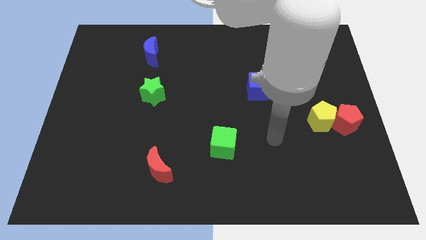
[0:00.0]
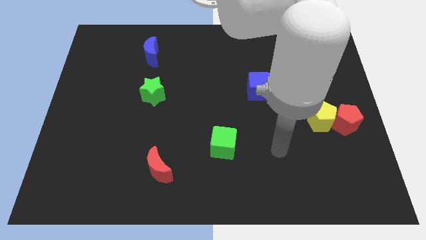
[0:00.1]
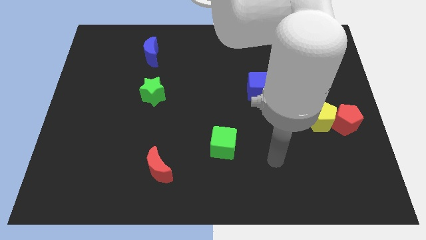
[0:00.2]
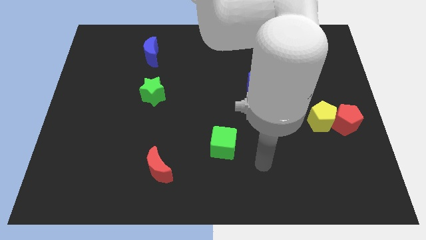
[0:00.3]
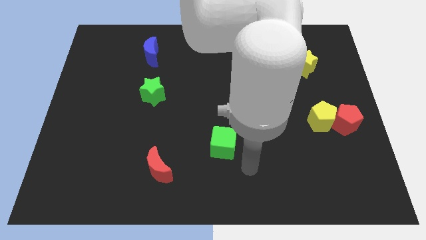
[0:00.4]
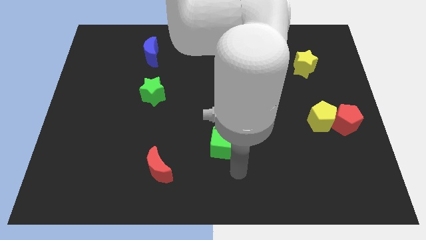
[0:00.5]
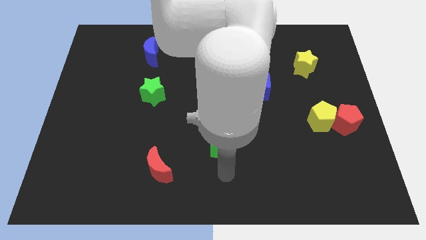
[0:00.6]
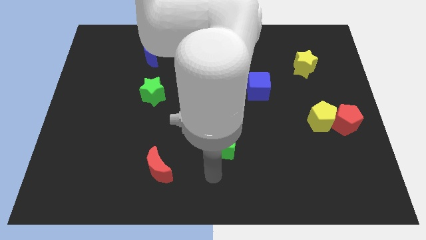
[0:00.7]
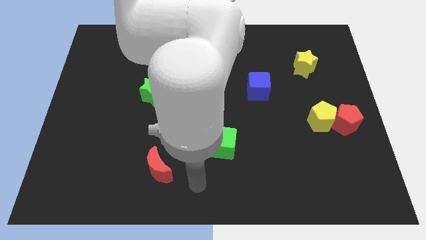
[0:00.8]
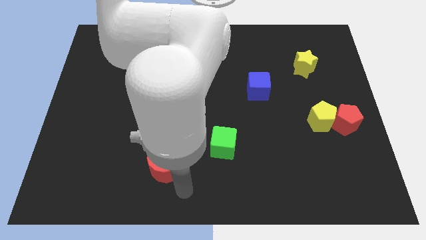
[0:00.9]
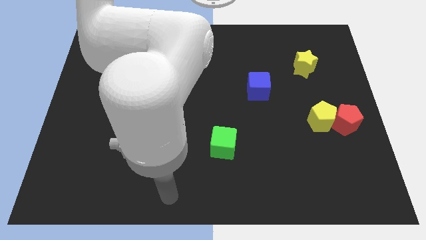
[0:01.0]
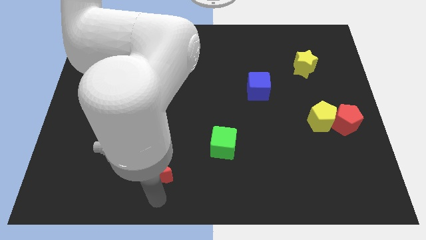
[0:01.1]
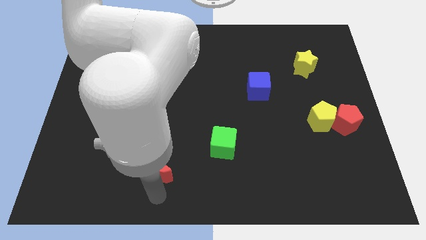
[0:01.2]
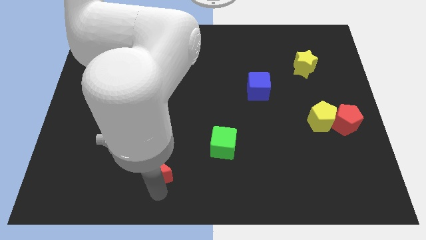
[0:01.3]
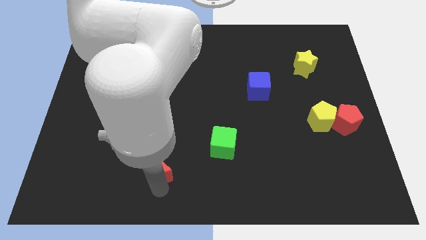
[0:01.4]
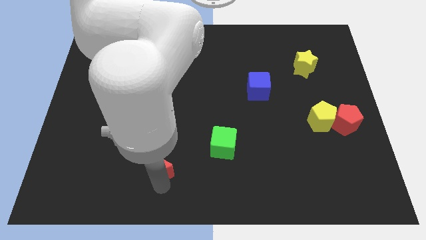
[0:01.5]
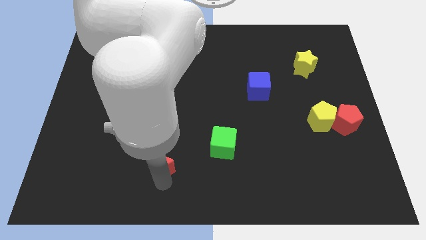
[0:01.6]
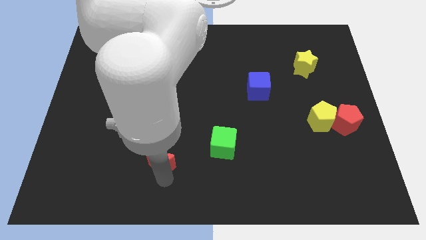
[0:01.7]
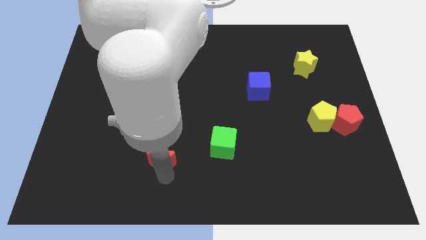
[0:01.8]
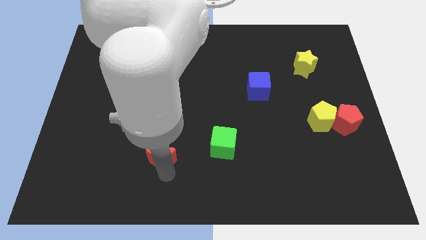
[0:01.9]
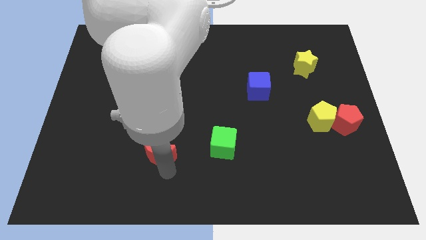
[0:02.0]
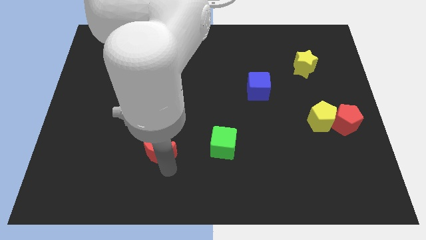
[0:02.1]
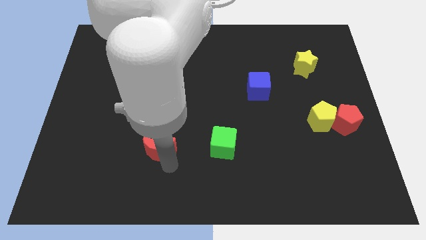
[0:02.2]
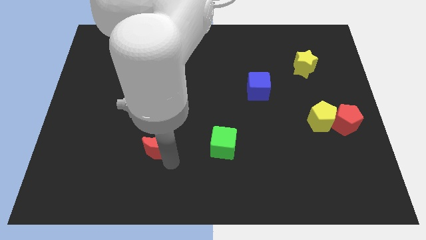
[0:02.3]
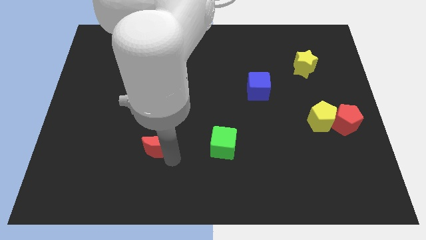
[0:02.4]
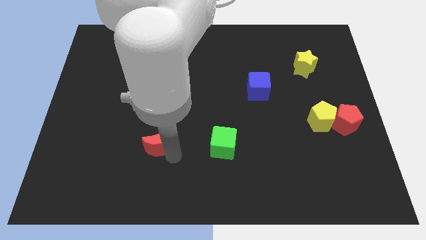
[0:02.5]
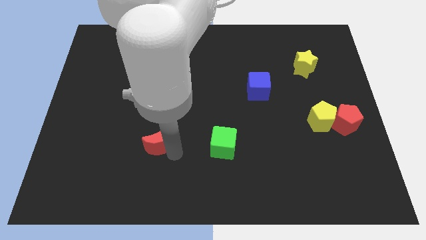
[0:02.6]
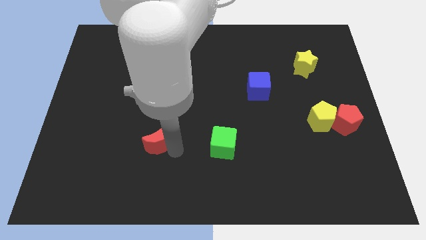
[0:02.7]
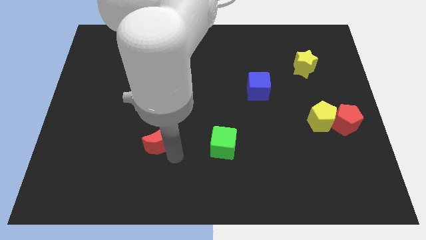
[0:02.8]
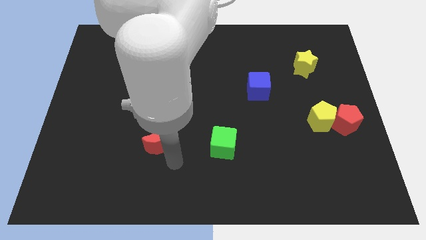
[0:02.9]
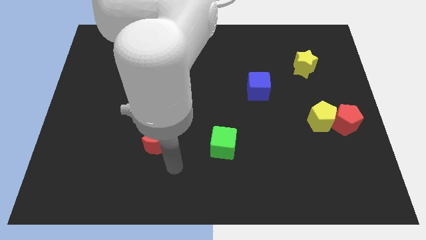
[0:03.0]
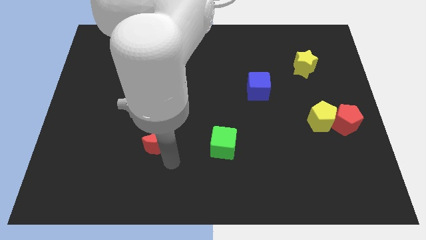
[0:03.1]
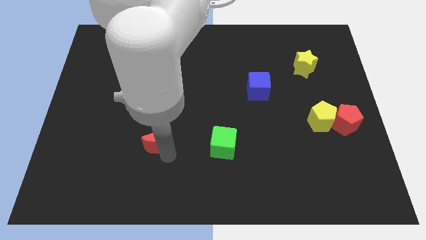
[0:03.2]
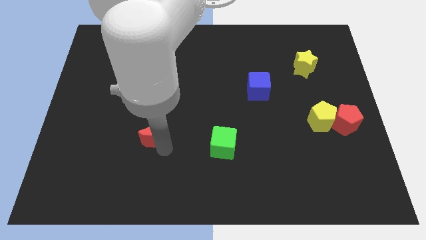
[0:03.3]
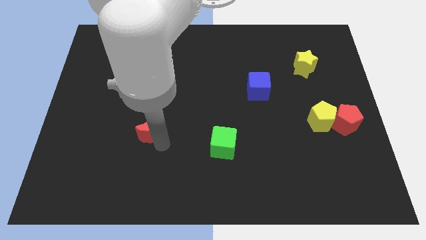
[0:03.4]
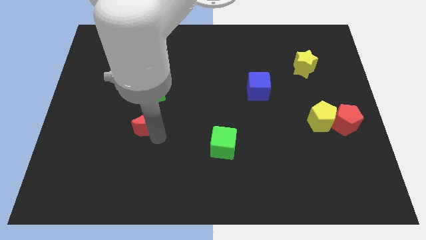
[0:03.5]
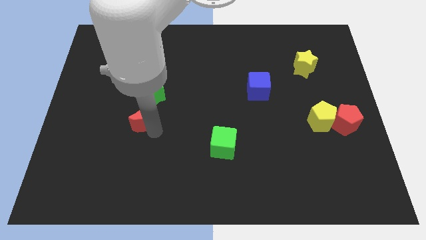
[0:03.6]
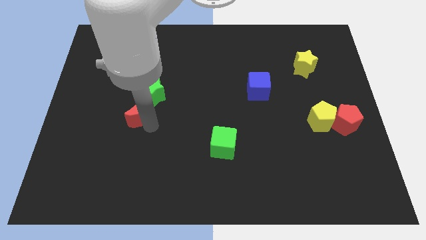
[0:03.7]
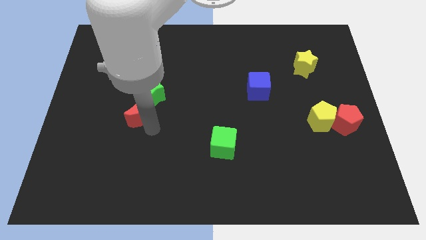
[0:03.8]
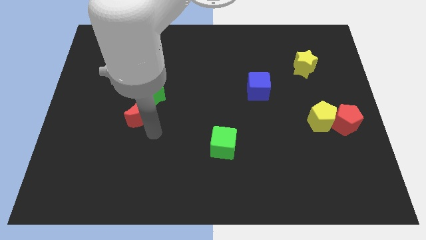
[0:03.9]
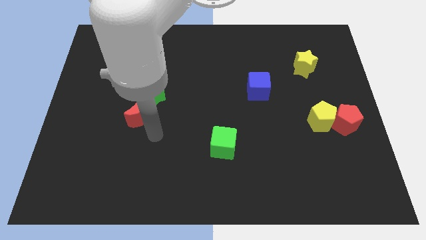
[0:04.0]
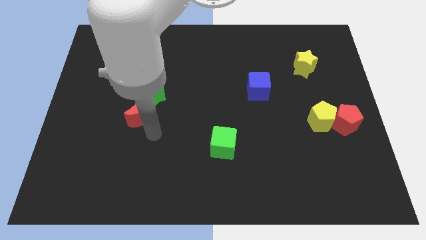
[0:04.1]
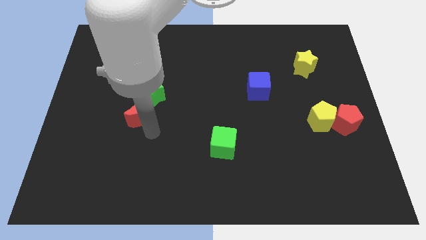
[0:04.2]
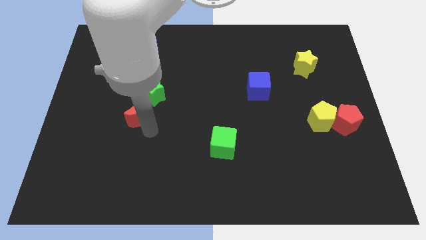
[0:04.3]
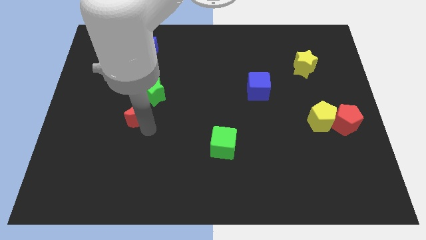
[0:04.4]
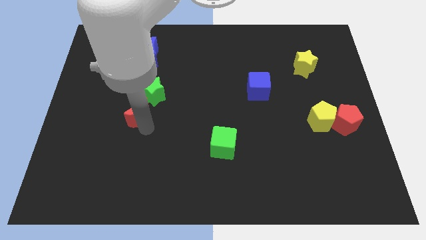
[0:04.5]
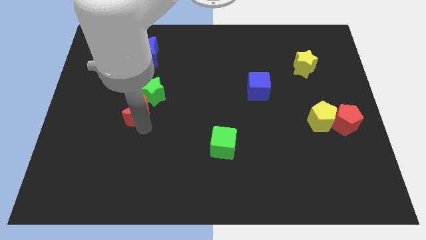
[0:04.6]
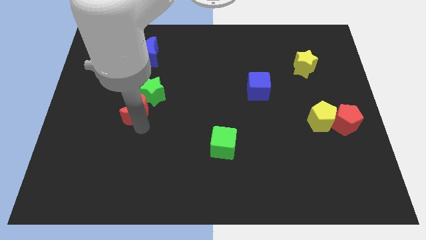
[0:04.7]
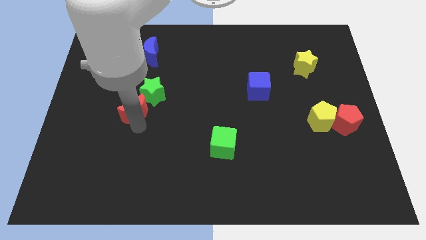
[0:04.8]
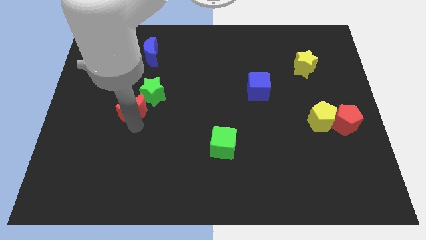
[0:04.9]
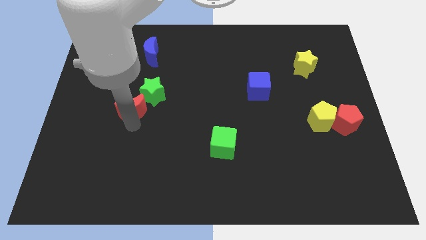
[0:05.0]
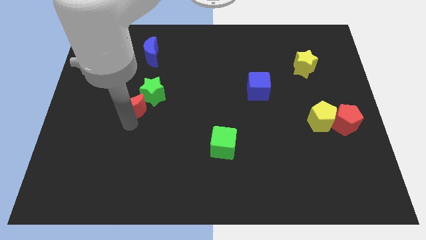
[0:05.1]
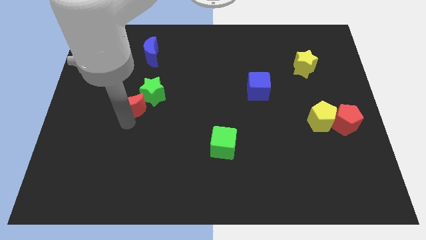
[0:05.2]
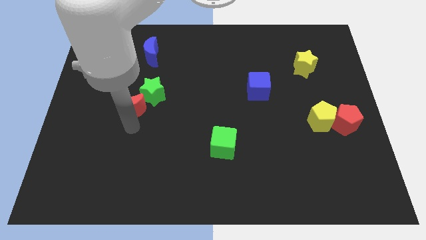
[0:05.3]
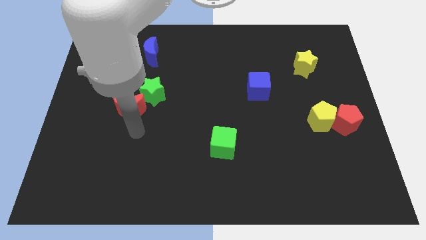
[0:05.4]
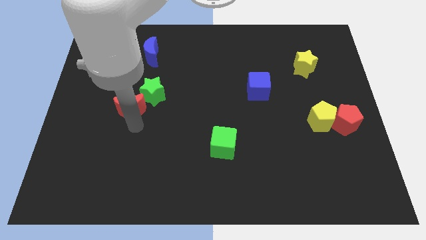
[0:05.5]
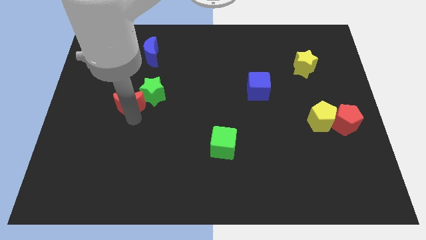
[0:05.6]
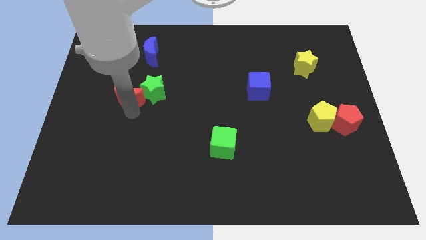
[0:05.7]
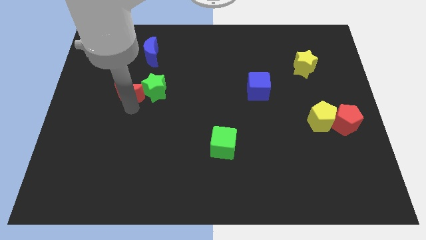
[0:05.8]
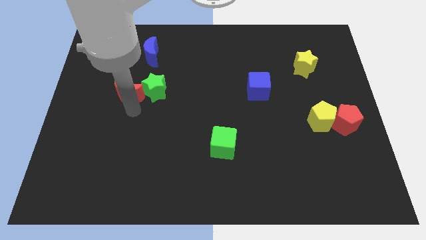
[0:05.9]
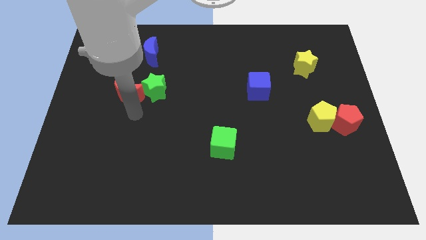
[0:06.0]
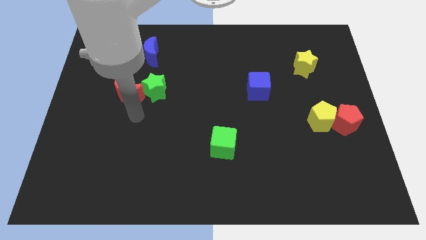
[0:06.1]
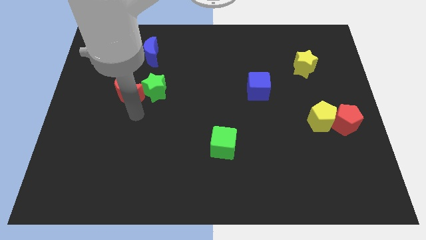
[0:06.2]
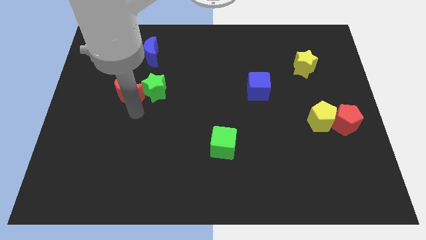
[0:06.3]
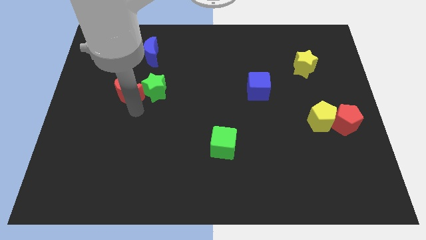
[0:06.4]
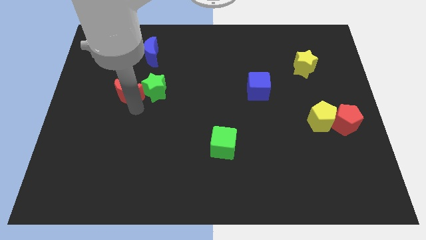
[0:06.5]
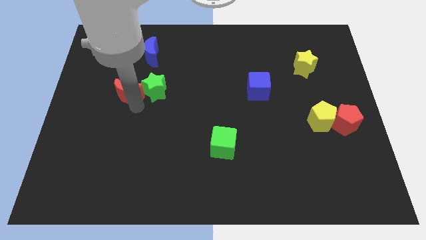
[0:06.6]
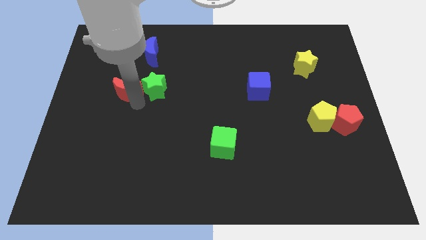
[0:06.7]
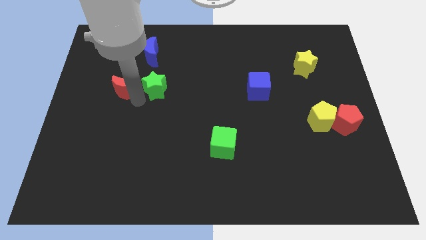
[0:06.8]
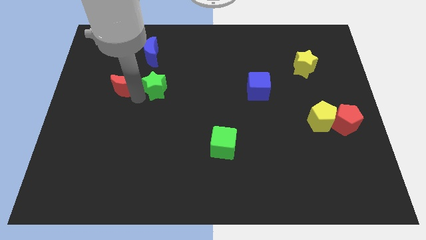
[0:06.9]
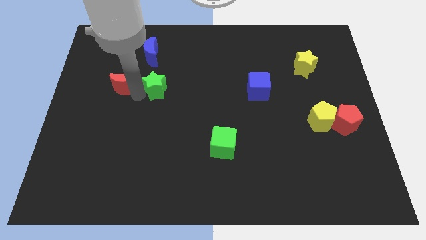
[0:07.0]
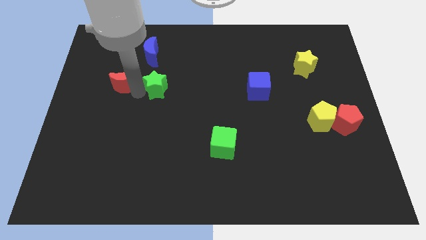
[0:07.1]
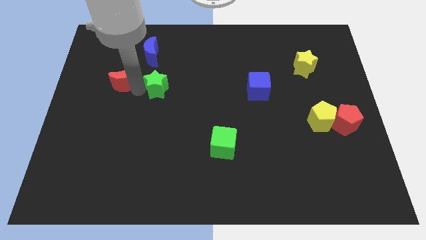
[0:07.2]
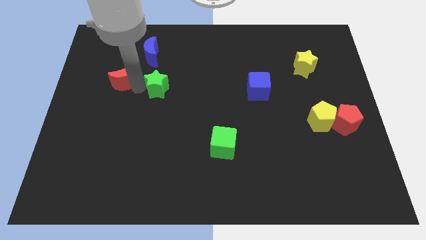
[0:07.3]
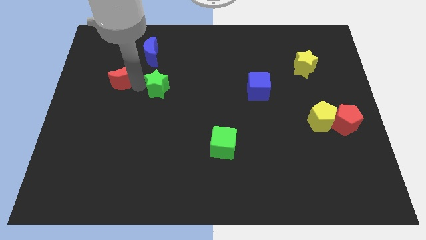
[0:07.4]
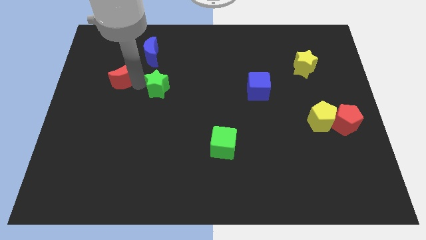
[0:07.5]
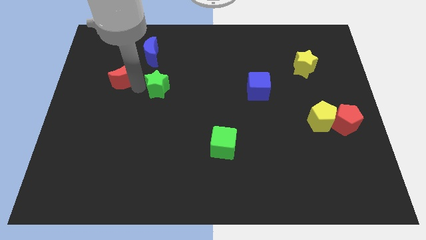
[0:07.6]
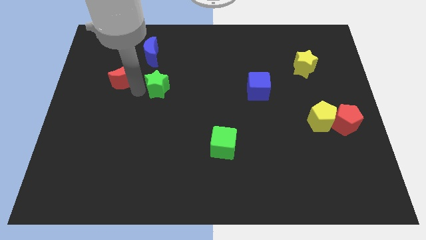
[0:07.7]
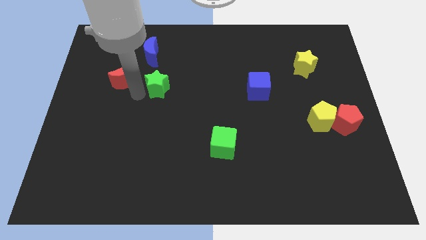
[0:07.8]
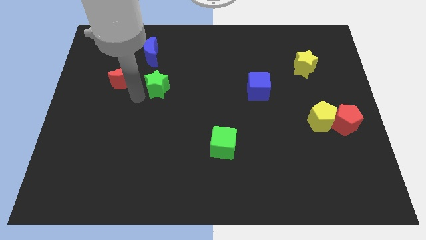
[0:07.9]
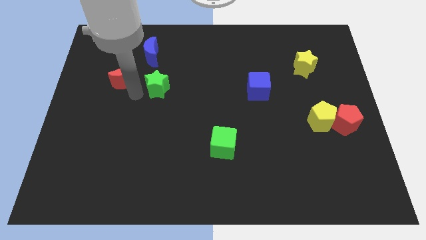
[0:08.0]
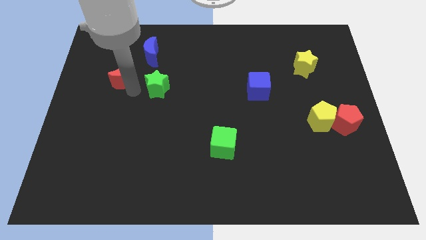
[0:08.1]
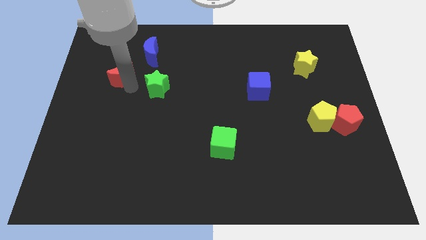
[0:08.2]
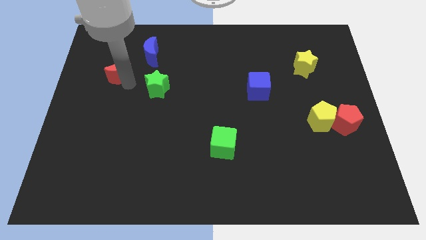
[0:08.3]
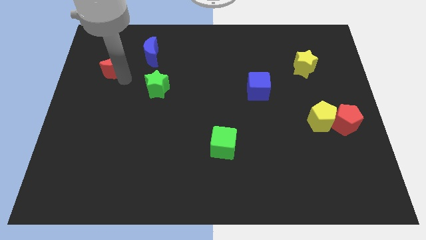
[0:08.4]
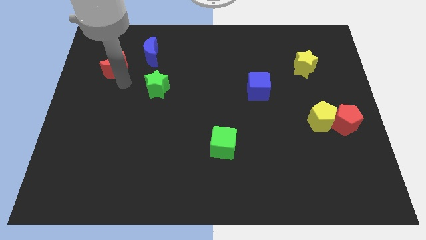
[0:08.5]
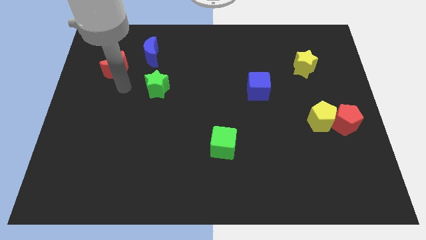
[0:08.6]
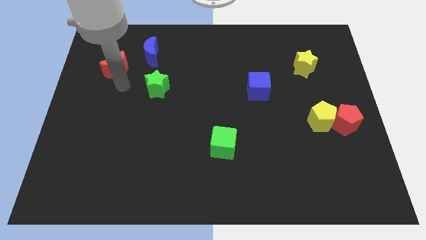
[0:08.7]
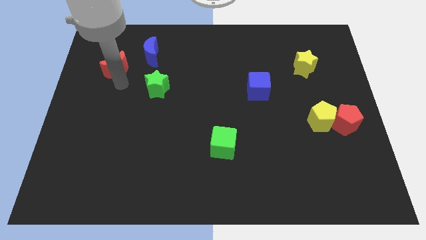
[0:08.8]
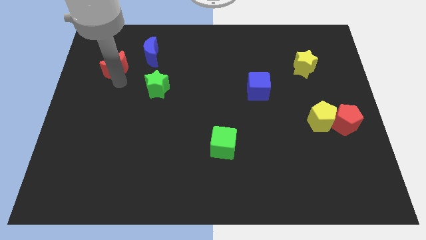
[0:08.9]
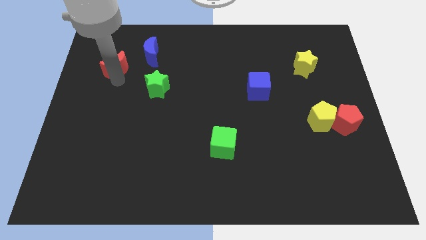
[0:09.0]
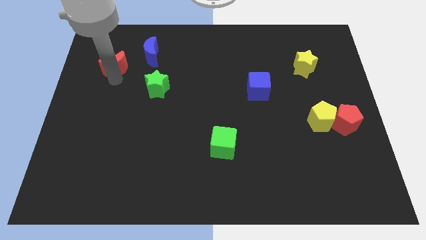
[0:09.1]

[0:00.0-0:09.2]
slide the red moon to the left of the blue moon
